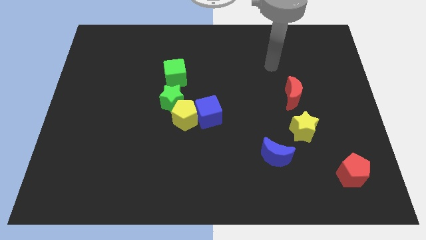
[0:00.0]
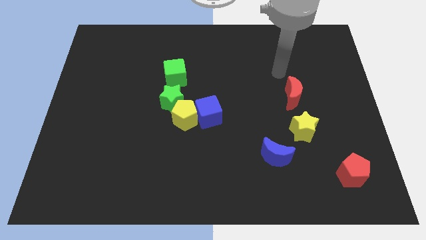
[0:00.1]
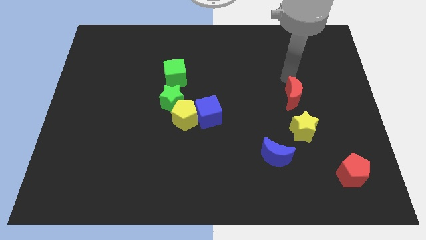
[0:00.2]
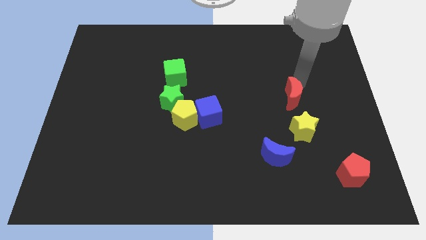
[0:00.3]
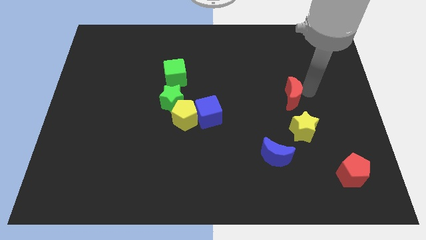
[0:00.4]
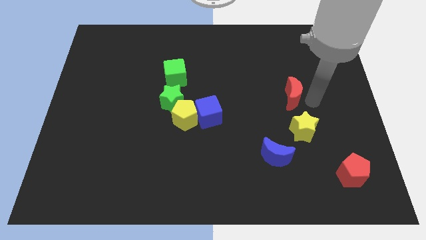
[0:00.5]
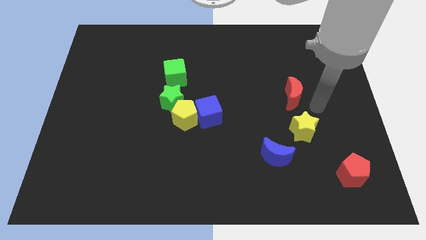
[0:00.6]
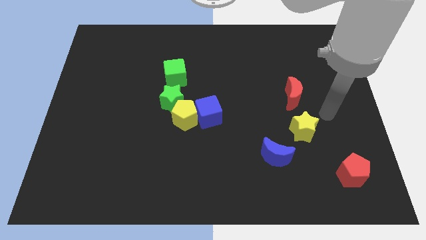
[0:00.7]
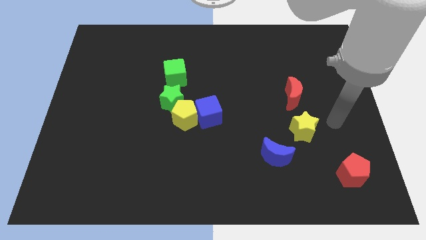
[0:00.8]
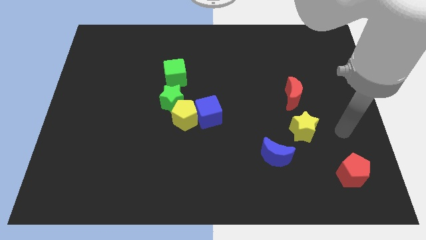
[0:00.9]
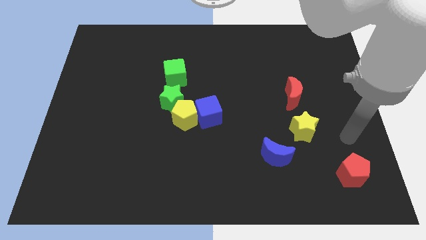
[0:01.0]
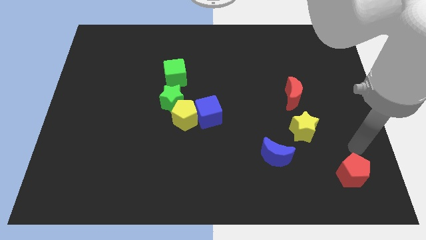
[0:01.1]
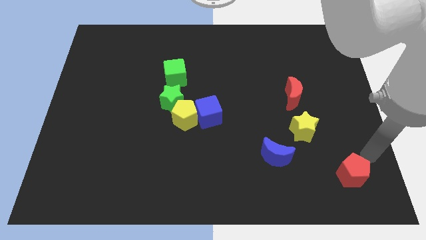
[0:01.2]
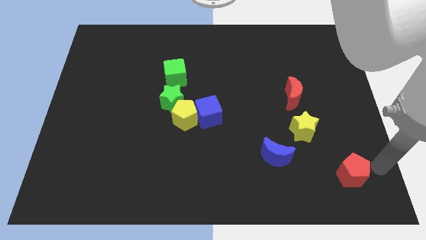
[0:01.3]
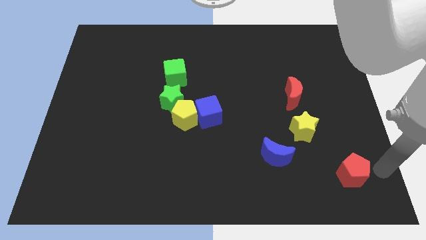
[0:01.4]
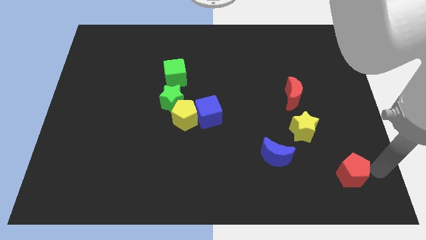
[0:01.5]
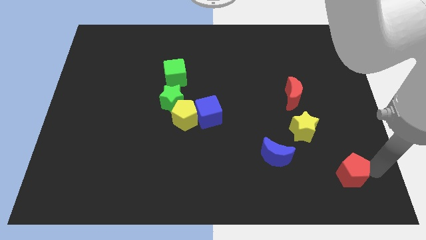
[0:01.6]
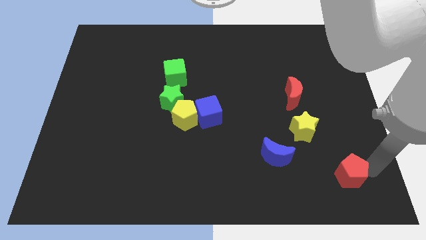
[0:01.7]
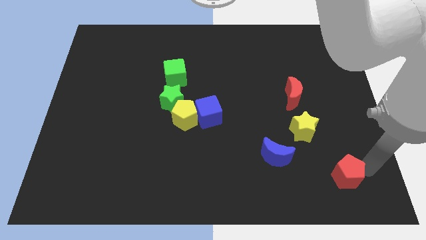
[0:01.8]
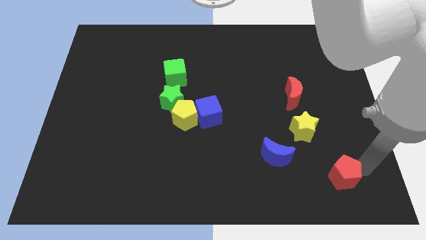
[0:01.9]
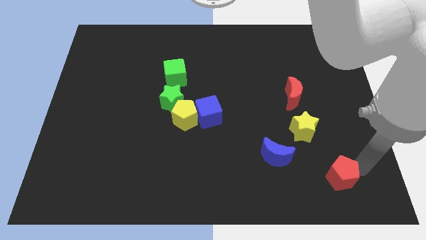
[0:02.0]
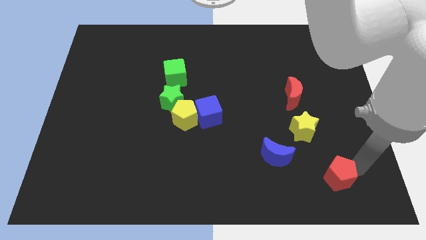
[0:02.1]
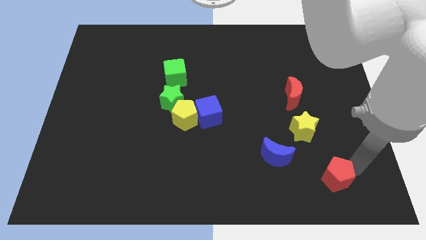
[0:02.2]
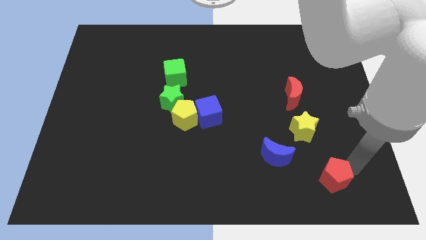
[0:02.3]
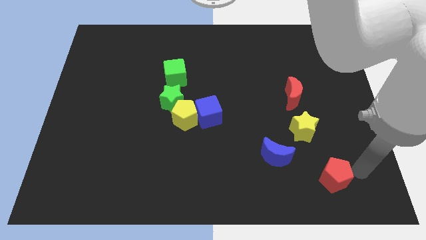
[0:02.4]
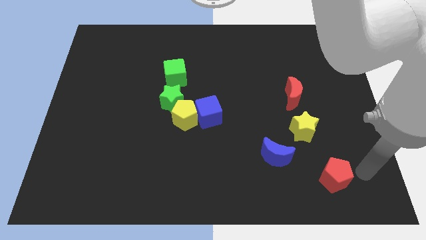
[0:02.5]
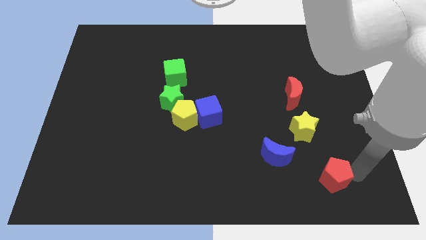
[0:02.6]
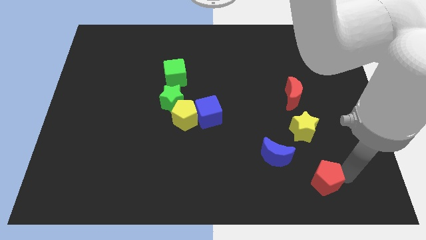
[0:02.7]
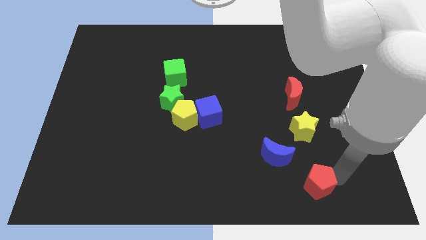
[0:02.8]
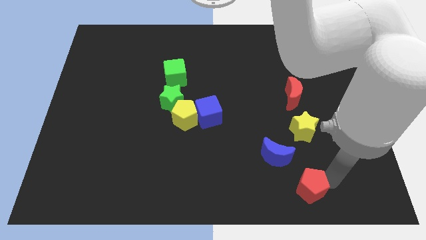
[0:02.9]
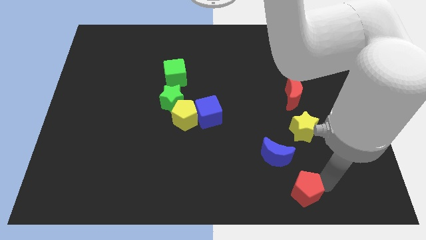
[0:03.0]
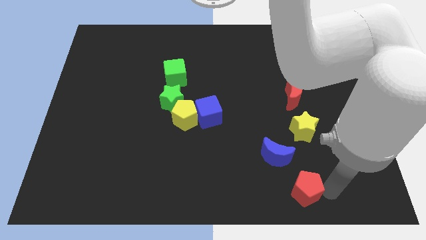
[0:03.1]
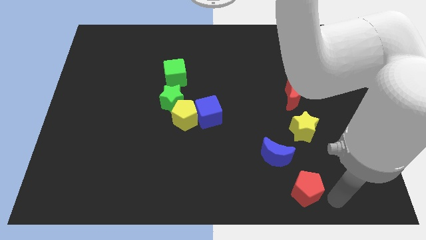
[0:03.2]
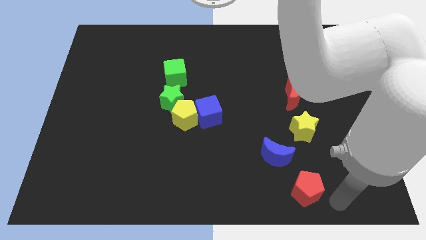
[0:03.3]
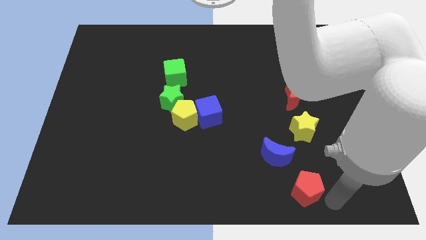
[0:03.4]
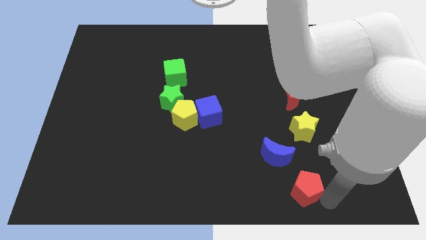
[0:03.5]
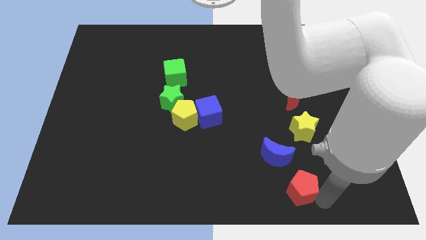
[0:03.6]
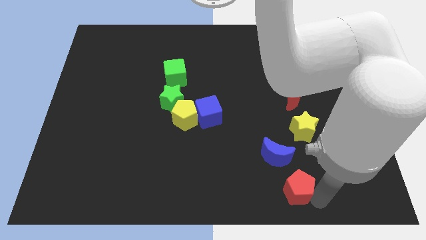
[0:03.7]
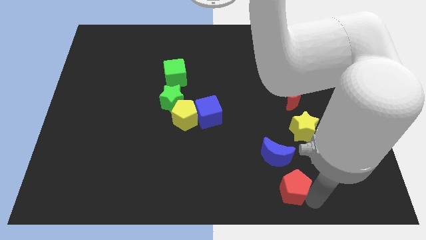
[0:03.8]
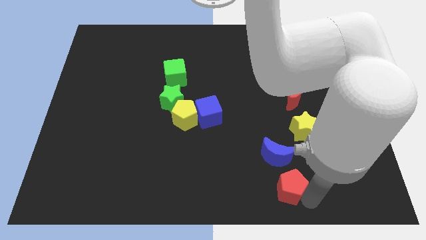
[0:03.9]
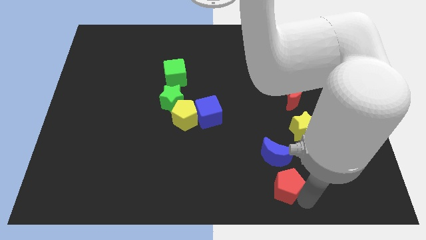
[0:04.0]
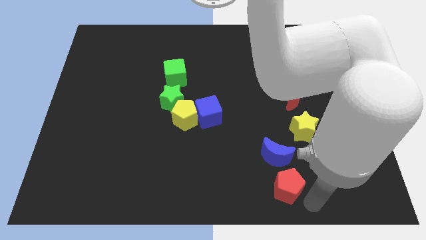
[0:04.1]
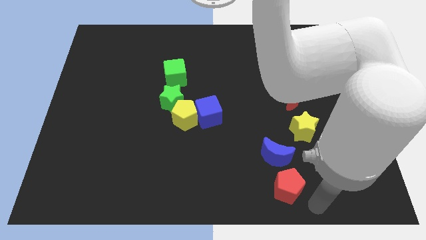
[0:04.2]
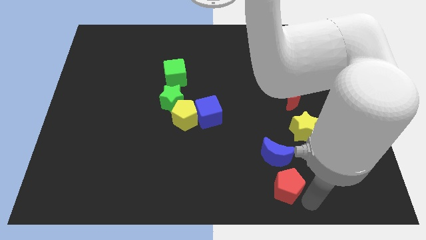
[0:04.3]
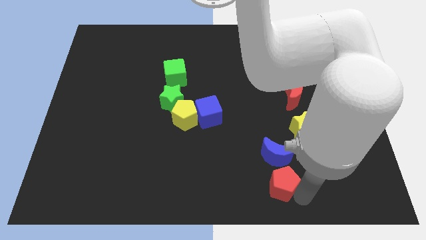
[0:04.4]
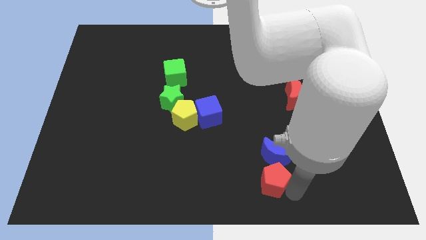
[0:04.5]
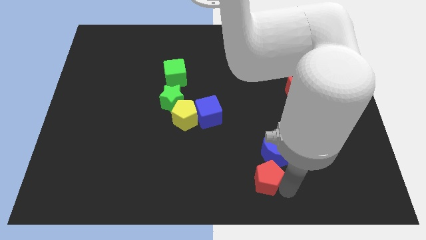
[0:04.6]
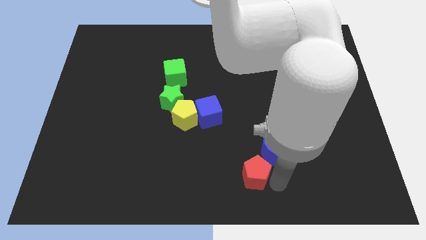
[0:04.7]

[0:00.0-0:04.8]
push the red pentagon to the left

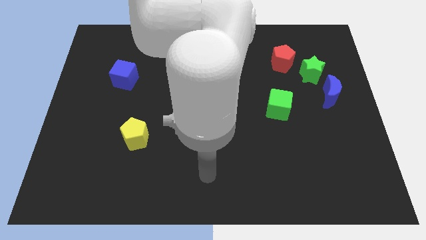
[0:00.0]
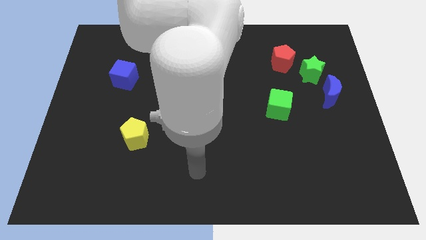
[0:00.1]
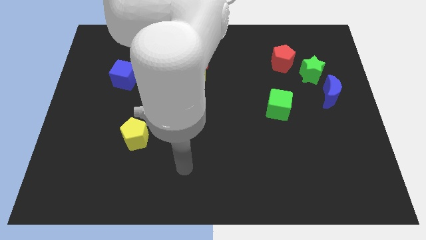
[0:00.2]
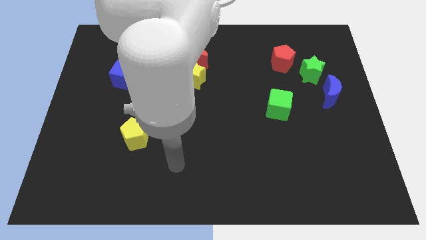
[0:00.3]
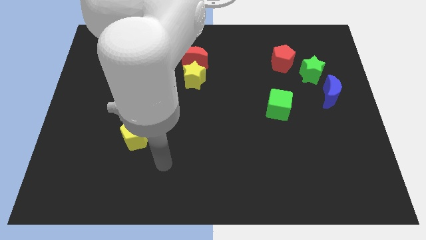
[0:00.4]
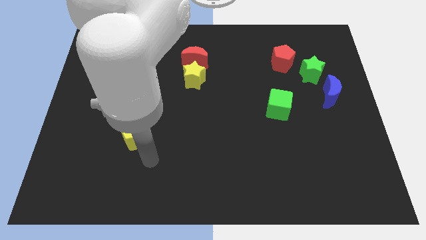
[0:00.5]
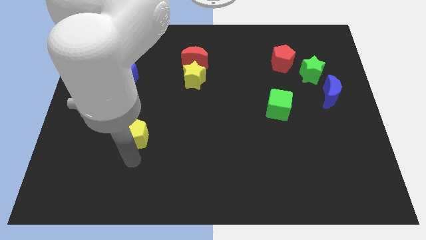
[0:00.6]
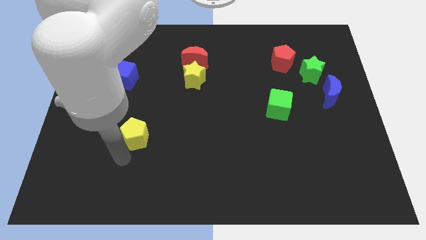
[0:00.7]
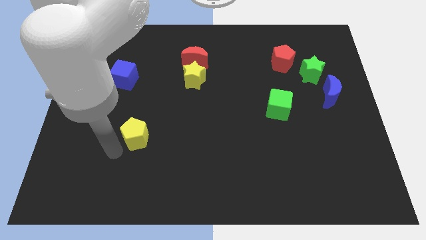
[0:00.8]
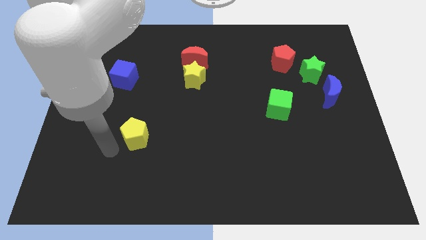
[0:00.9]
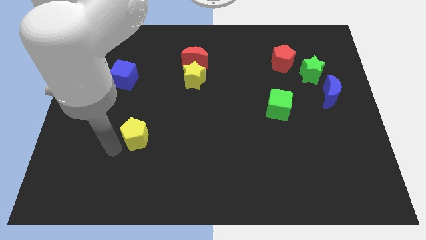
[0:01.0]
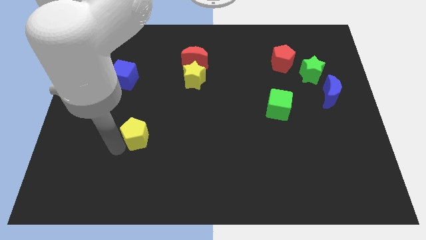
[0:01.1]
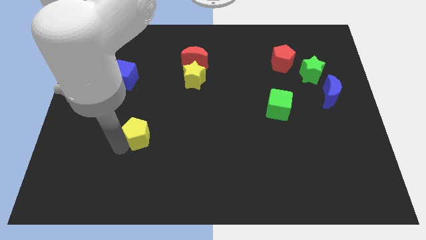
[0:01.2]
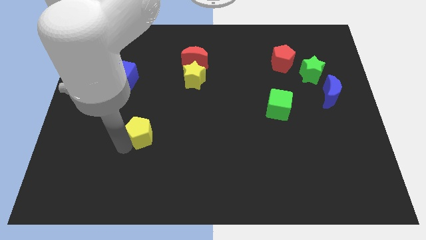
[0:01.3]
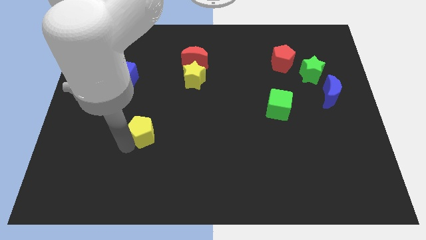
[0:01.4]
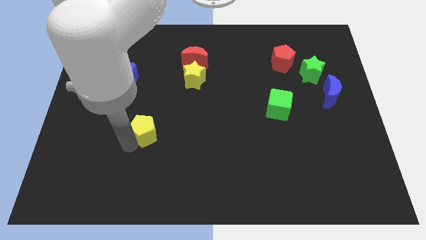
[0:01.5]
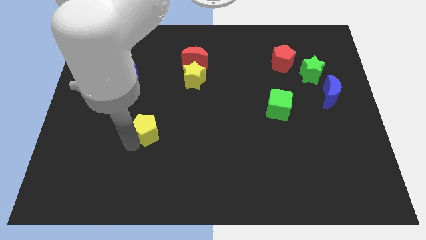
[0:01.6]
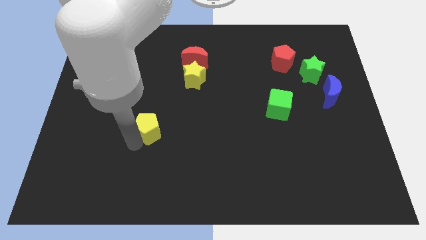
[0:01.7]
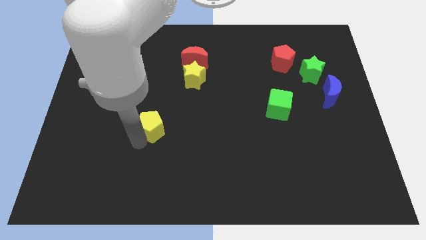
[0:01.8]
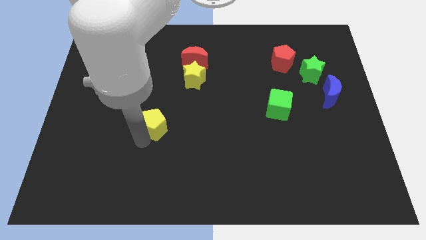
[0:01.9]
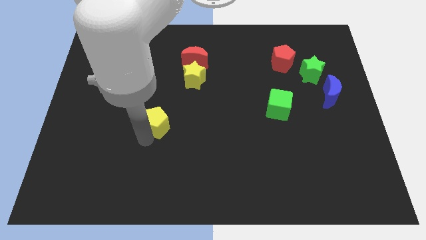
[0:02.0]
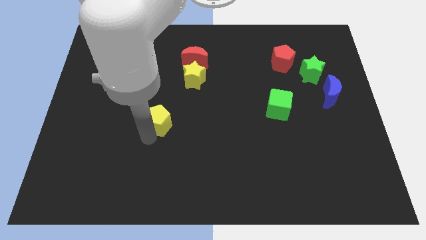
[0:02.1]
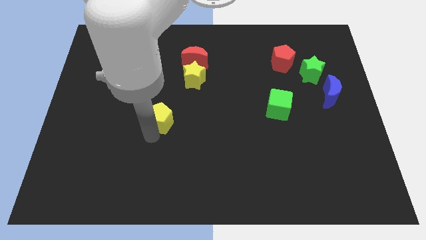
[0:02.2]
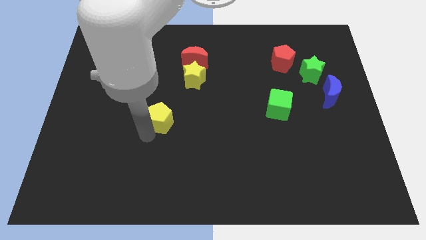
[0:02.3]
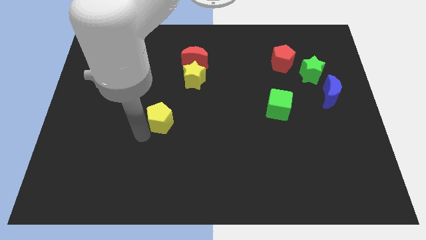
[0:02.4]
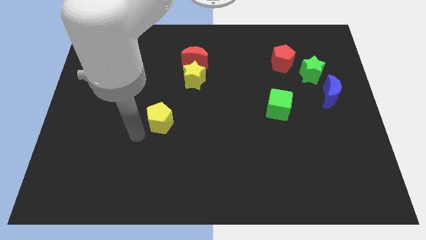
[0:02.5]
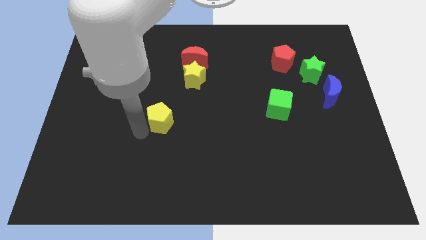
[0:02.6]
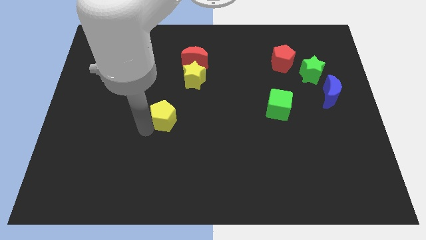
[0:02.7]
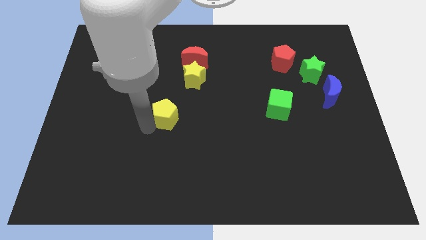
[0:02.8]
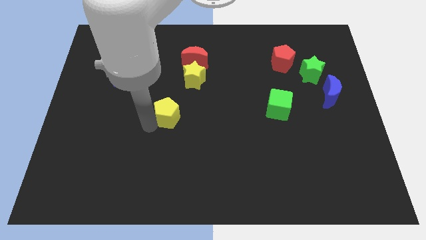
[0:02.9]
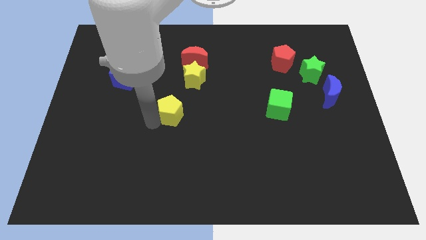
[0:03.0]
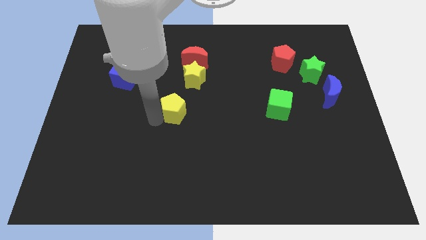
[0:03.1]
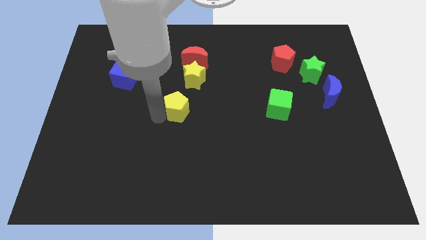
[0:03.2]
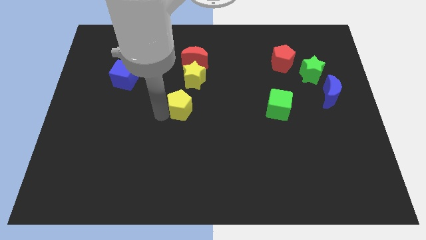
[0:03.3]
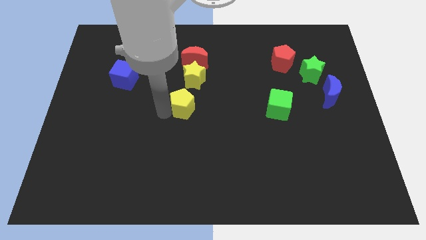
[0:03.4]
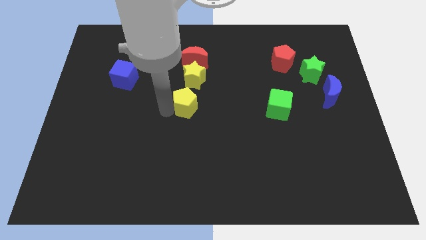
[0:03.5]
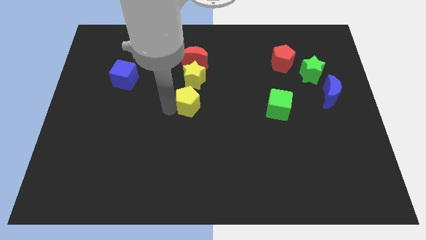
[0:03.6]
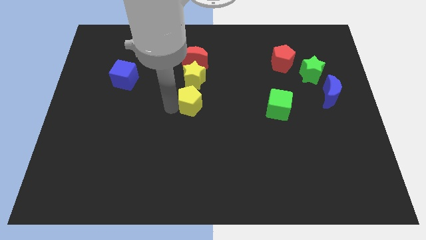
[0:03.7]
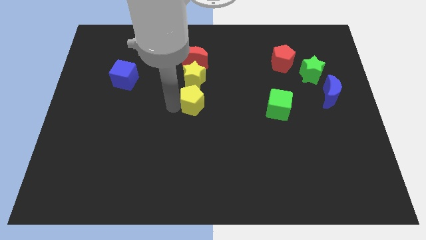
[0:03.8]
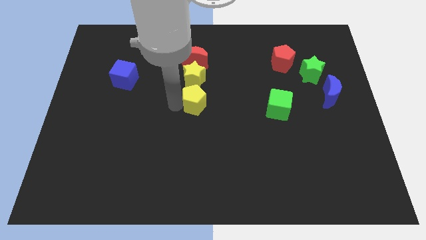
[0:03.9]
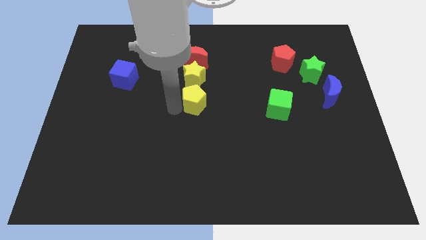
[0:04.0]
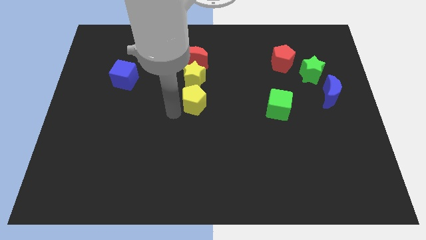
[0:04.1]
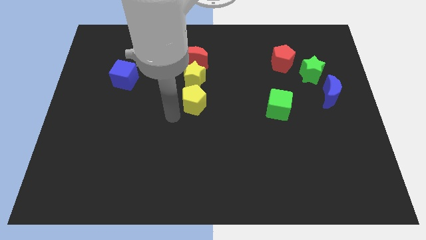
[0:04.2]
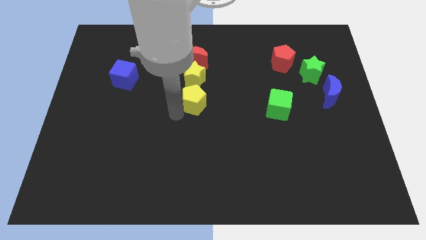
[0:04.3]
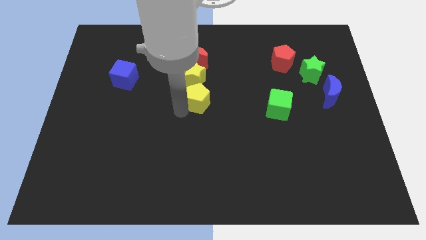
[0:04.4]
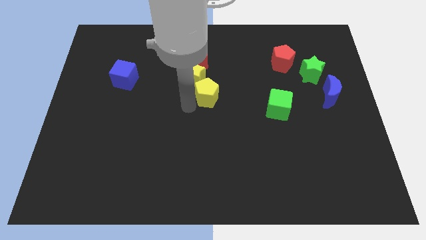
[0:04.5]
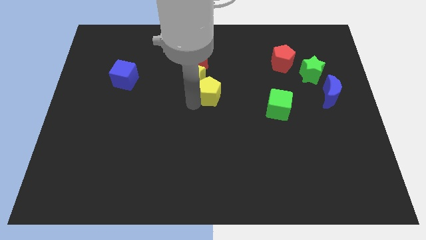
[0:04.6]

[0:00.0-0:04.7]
move the yellow pentagon upwards and to the right
